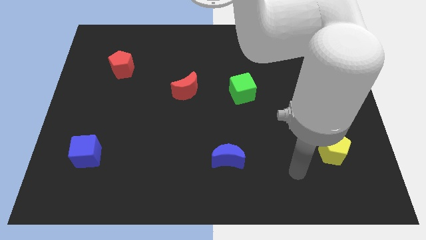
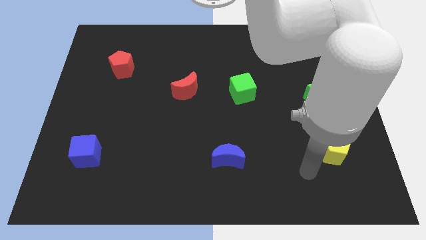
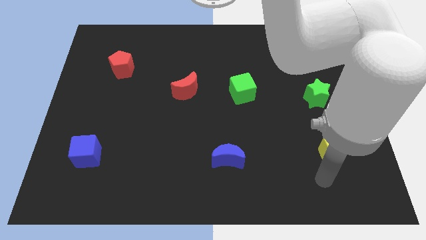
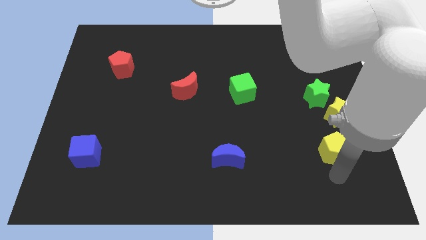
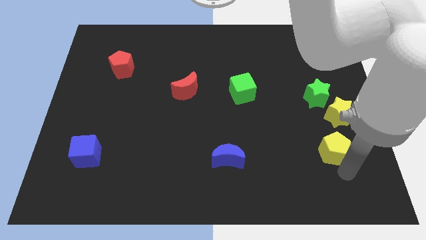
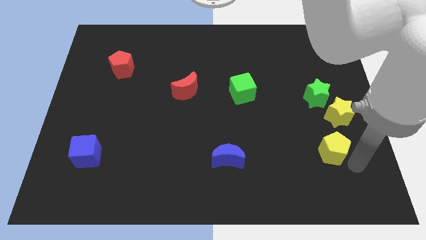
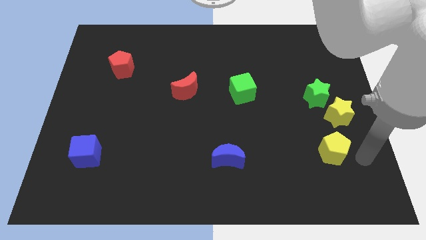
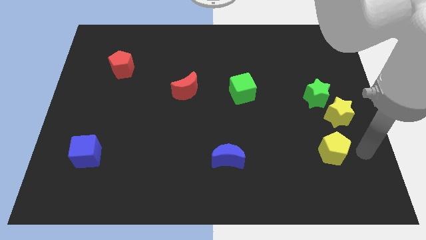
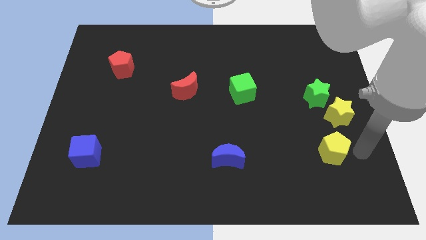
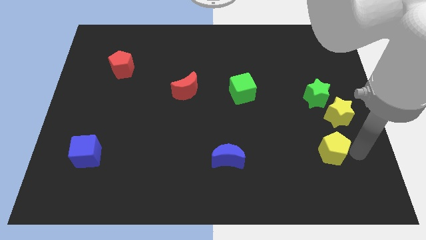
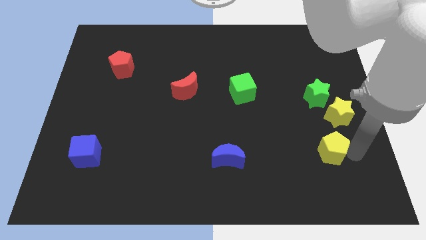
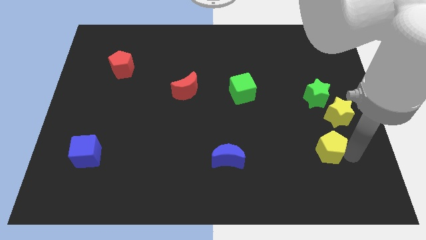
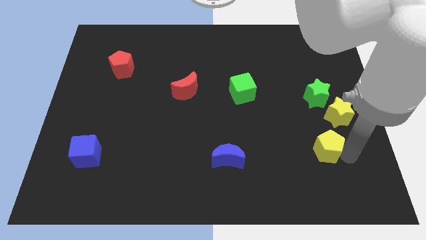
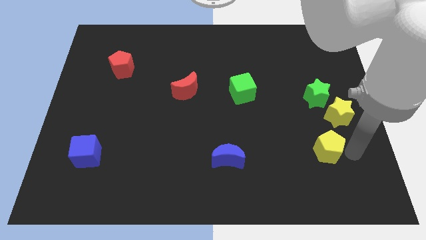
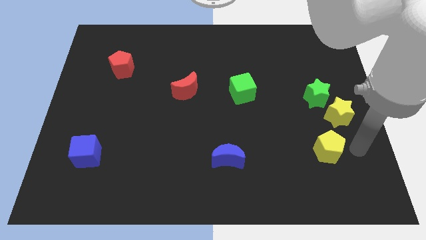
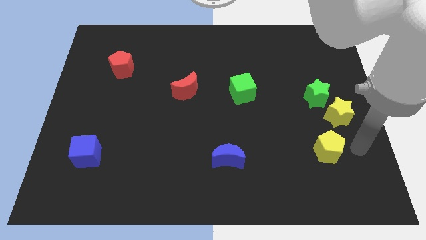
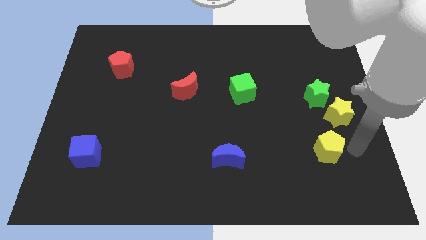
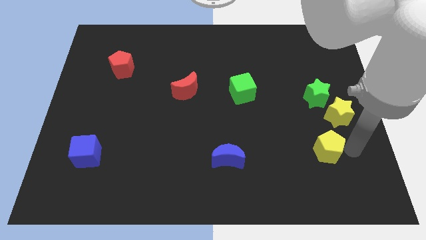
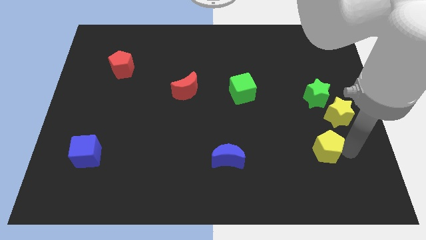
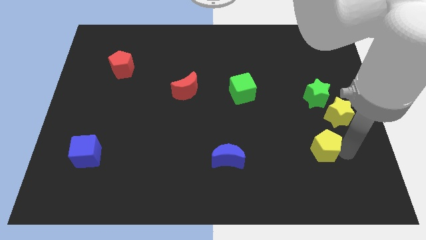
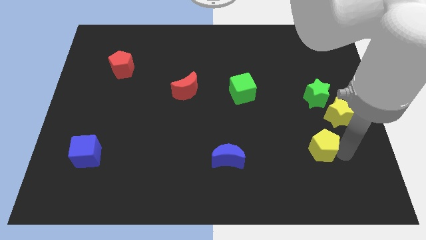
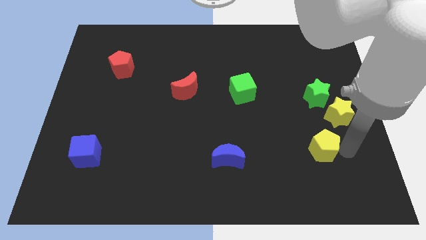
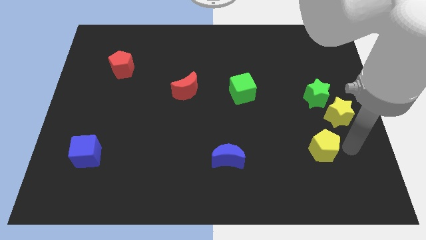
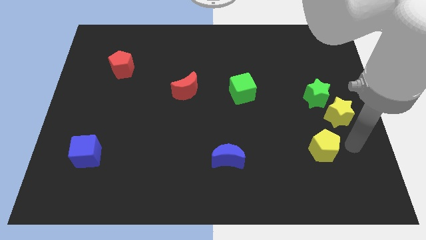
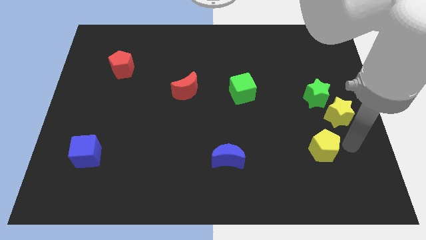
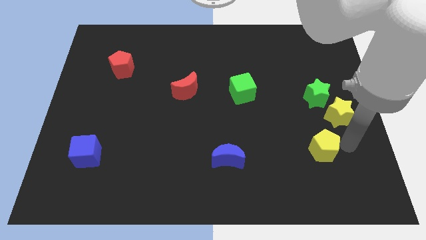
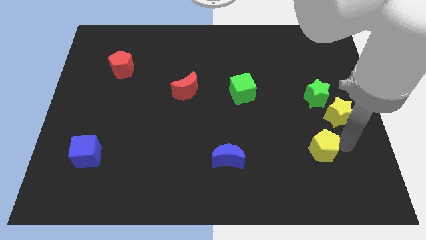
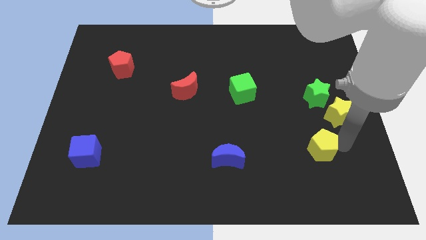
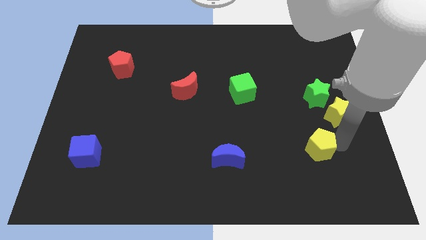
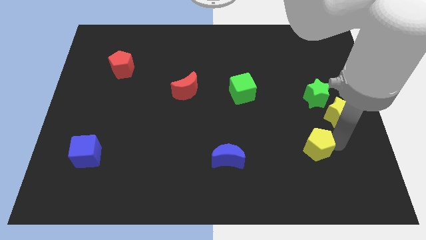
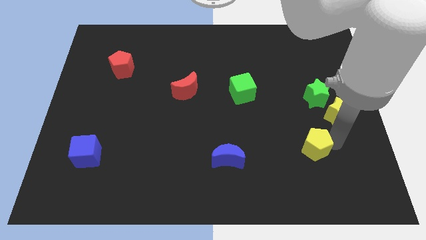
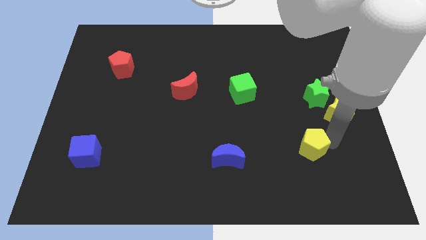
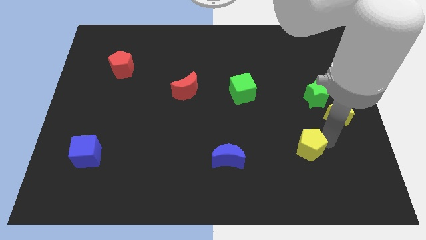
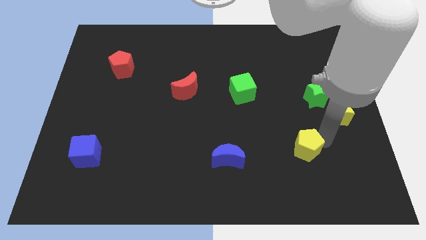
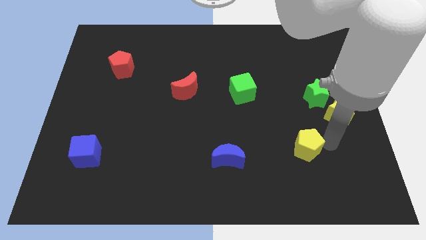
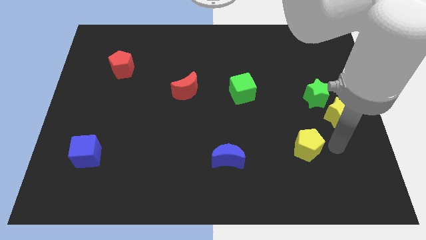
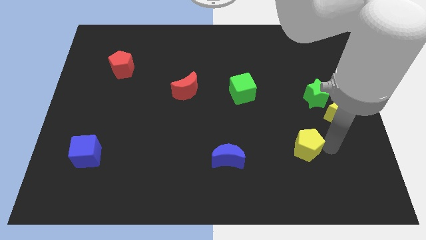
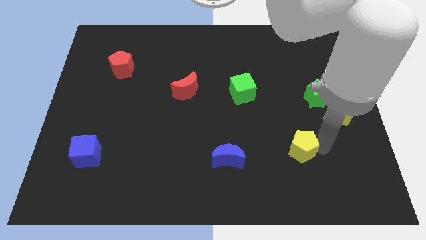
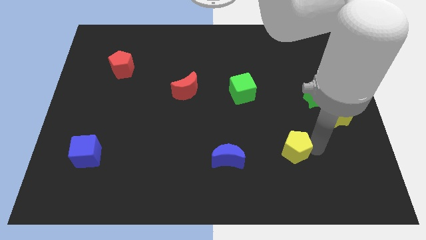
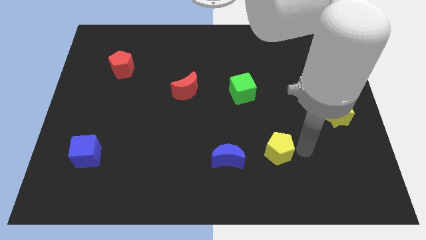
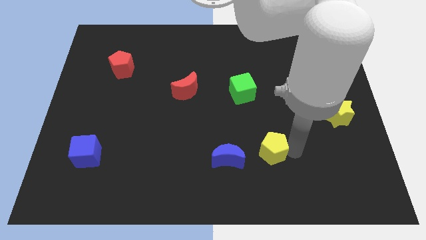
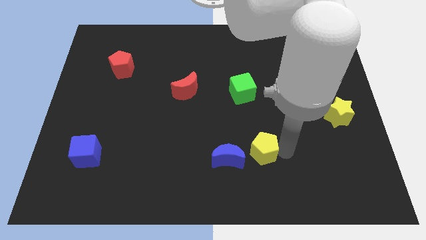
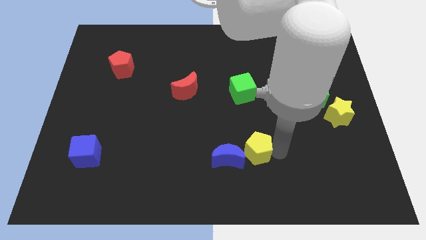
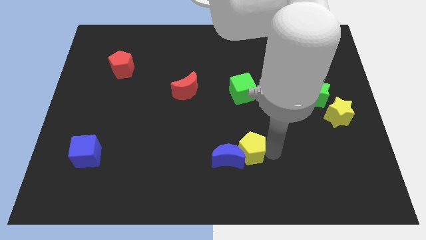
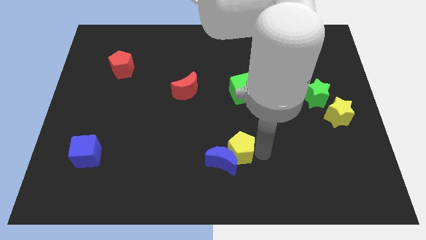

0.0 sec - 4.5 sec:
slide the yellow pentagon left

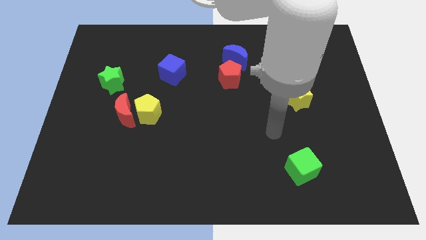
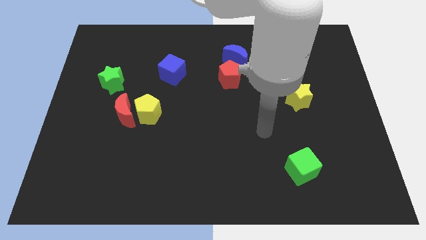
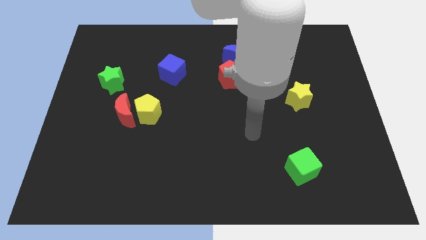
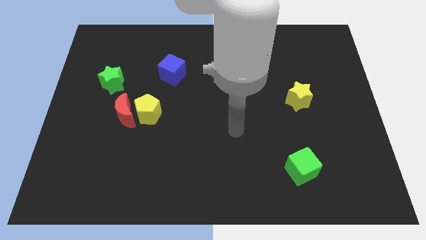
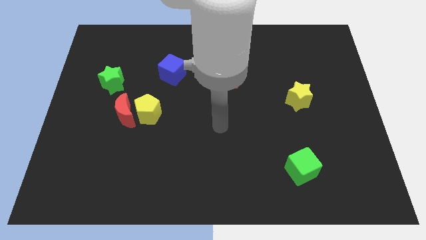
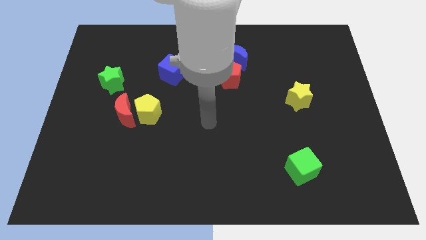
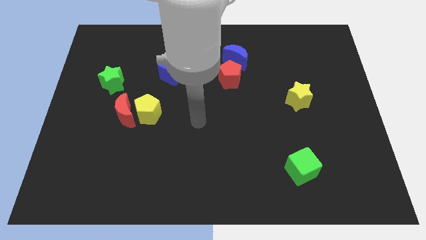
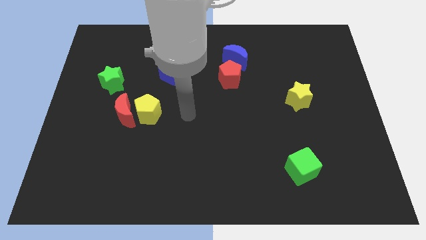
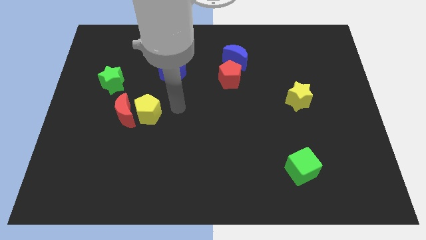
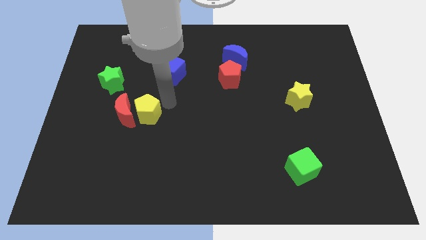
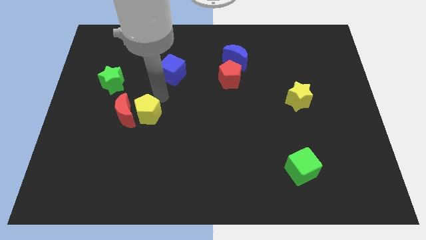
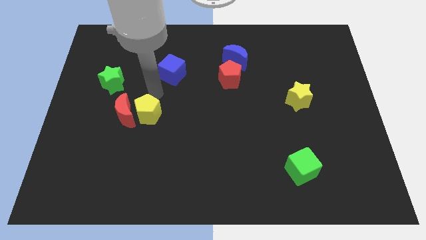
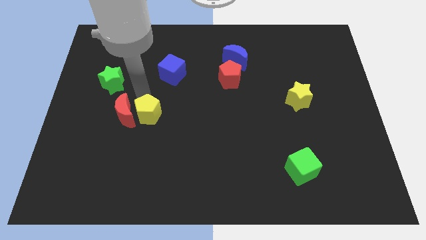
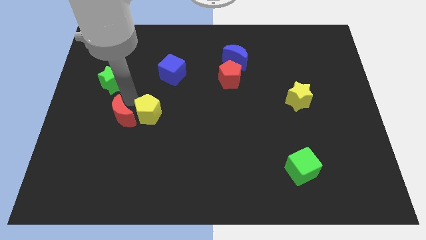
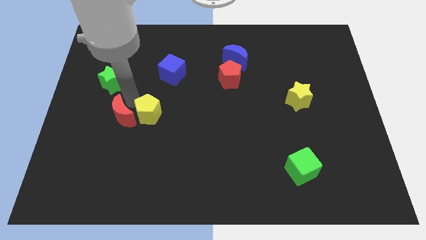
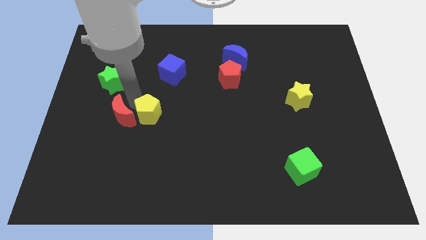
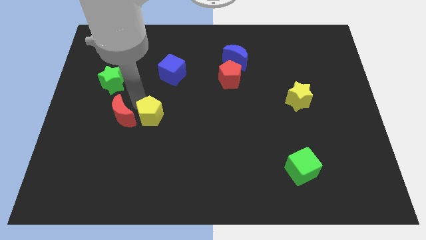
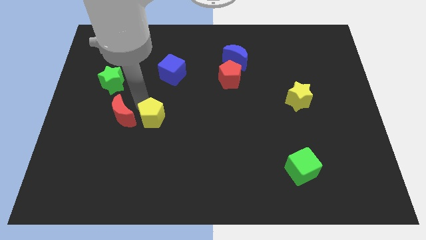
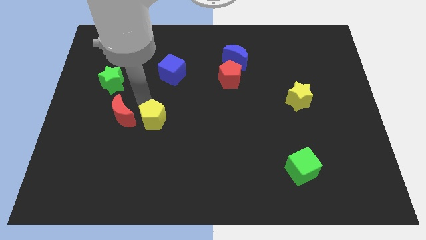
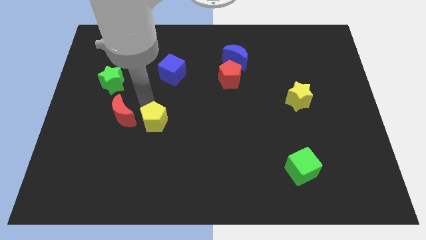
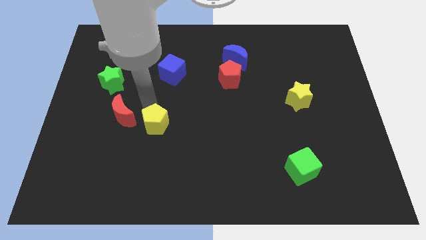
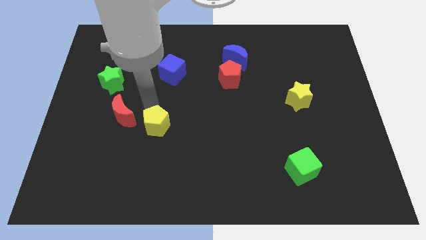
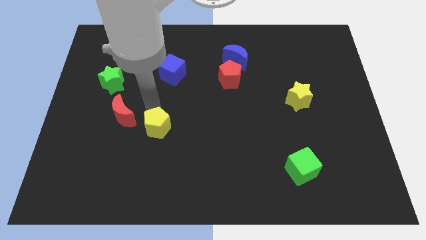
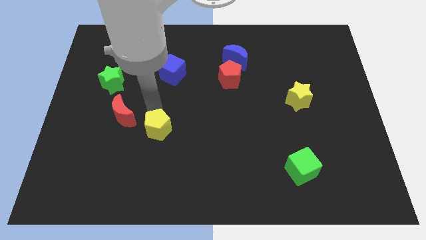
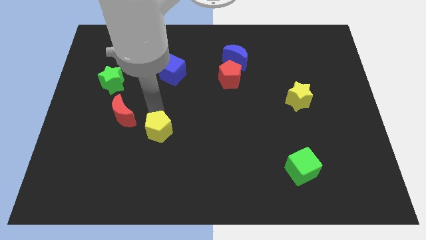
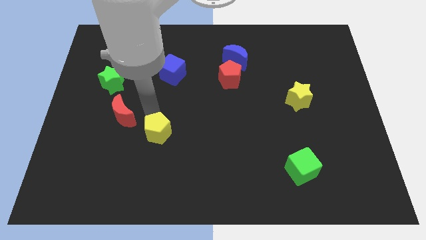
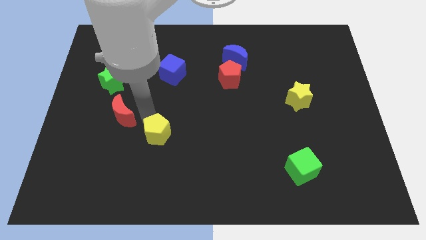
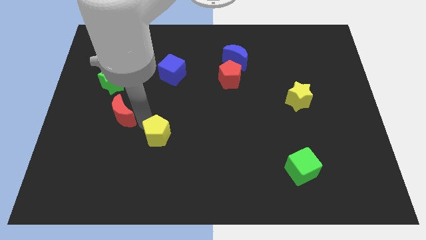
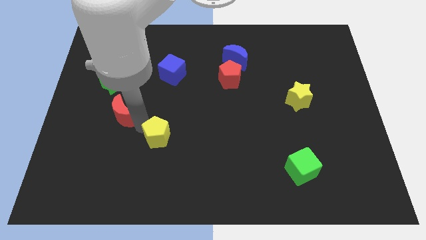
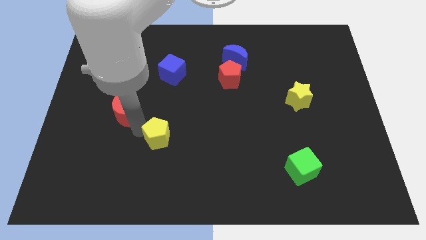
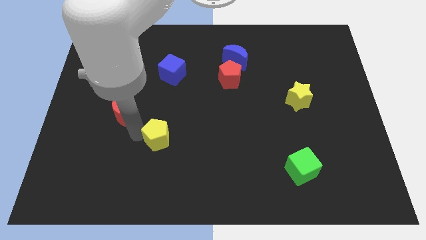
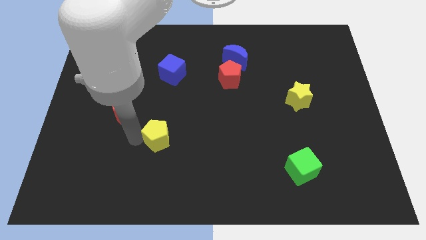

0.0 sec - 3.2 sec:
push the yellow pentagon down and right a little bit

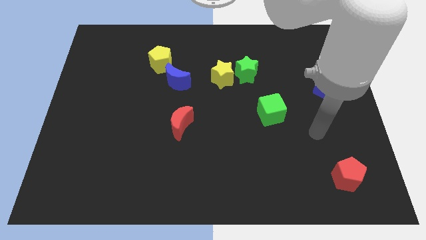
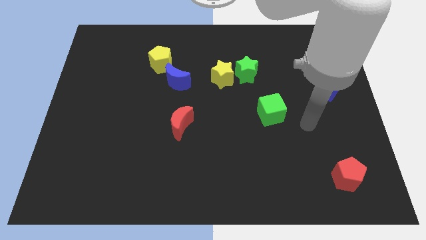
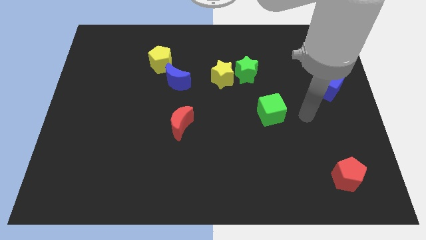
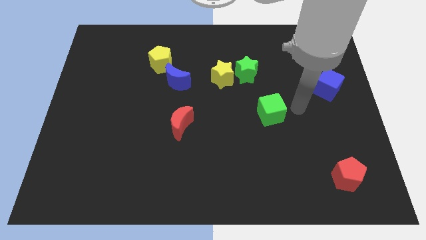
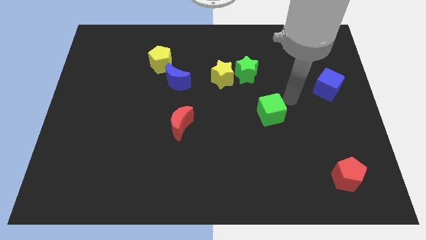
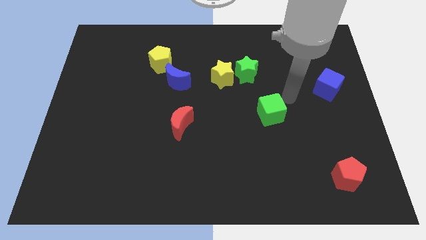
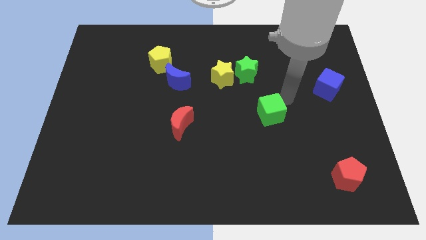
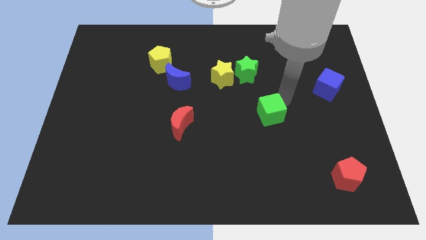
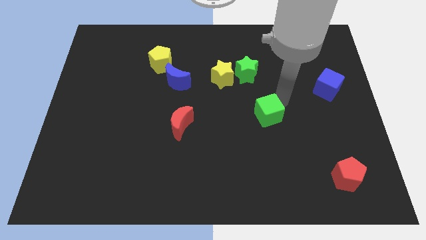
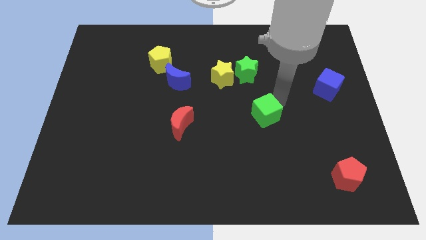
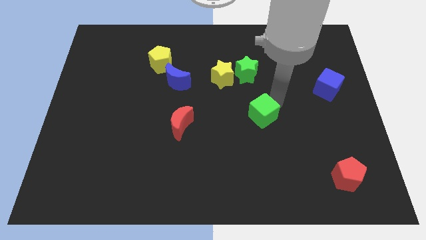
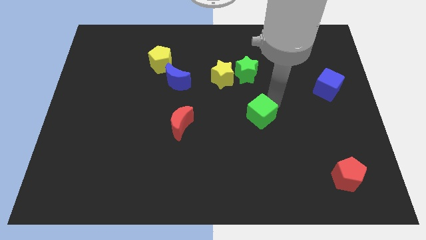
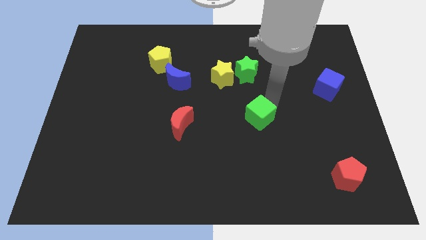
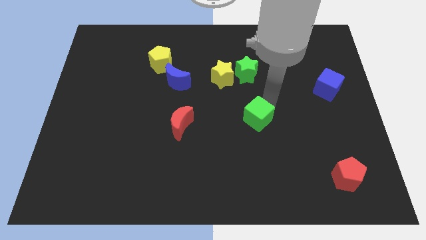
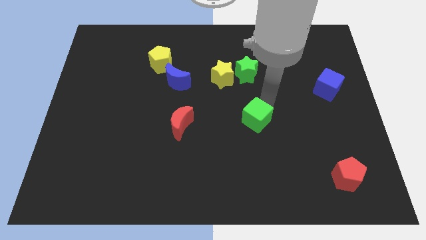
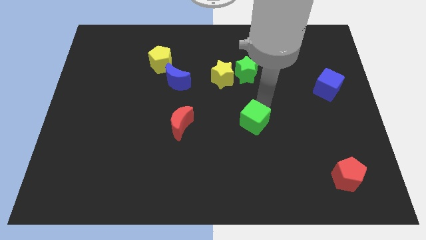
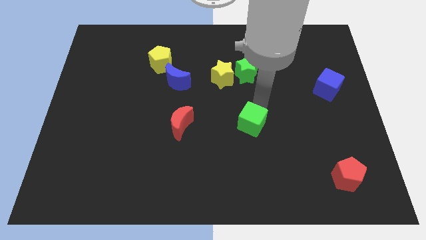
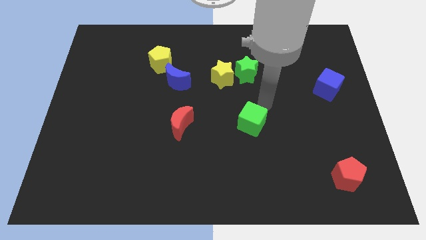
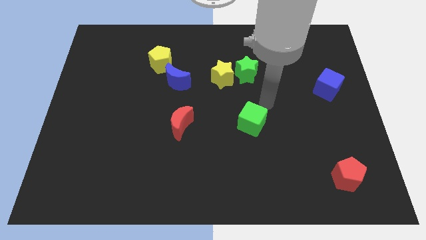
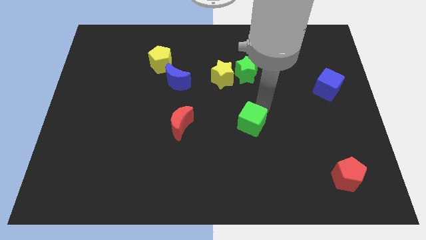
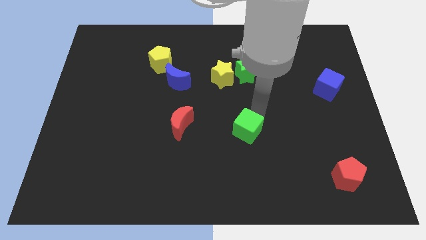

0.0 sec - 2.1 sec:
slide the green cube somewhat down and then left
